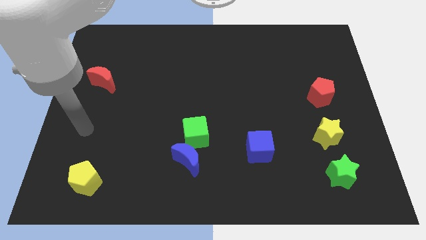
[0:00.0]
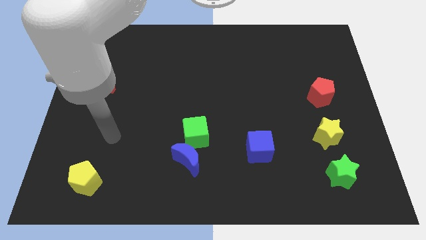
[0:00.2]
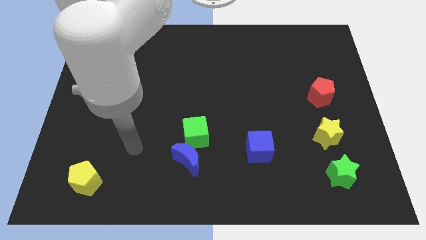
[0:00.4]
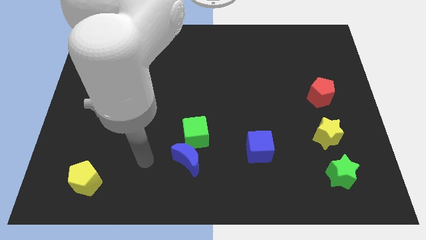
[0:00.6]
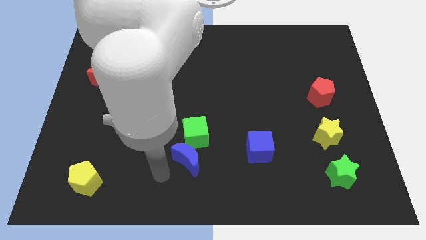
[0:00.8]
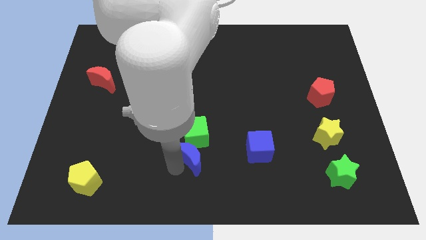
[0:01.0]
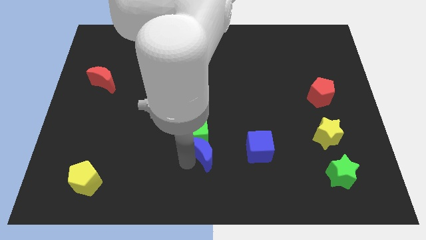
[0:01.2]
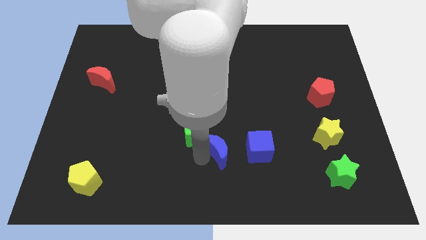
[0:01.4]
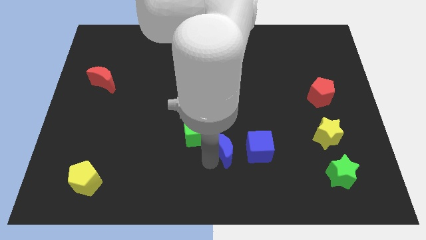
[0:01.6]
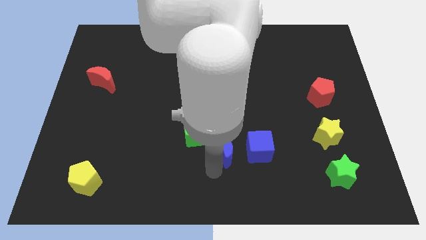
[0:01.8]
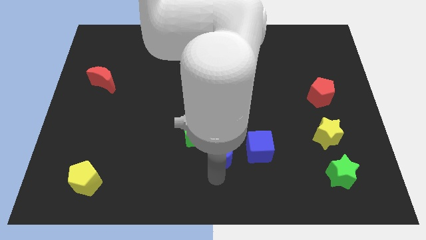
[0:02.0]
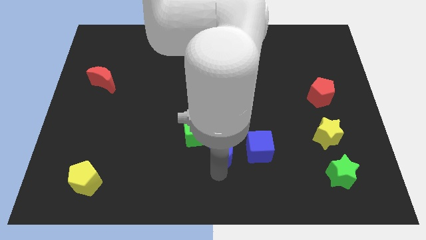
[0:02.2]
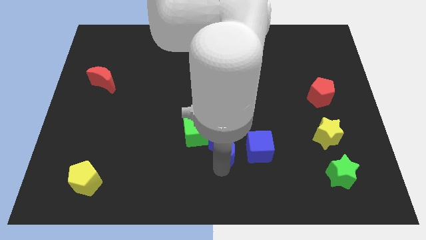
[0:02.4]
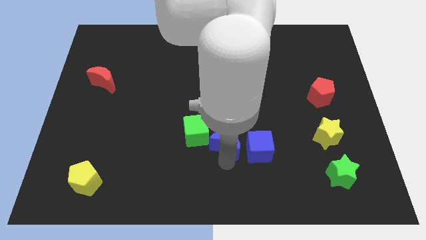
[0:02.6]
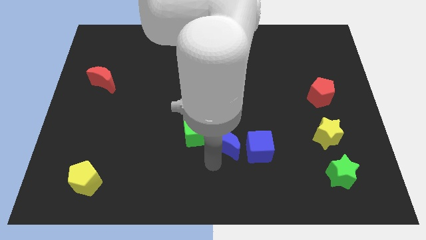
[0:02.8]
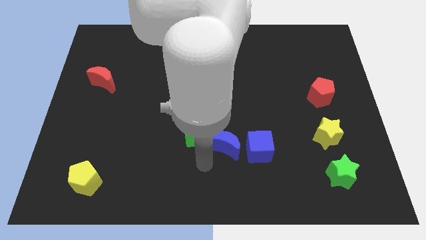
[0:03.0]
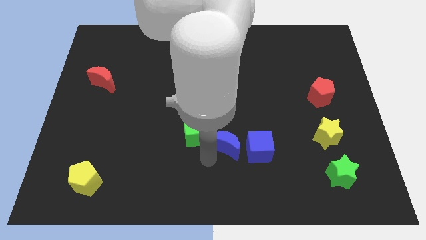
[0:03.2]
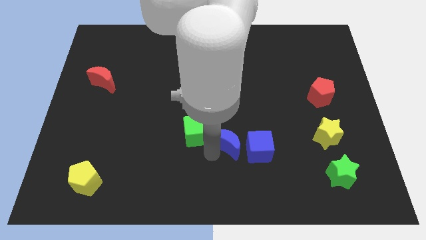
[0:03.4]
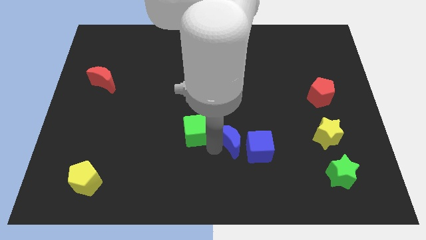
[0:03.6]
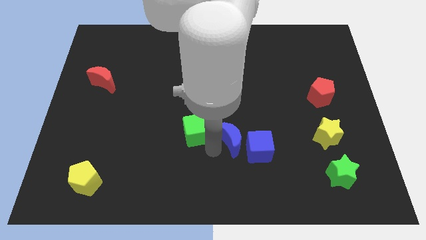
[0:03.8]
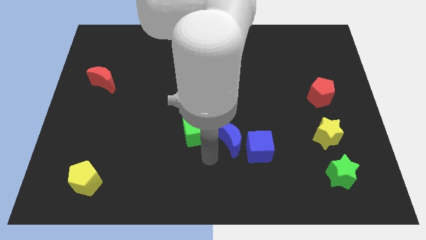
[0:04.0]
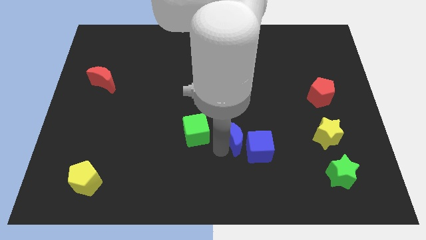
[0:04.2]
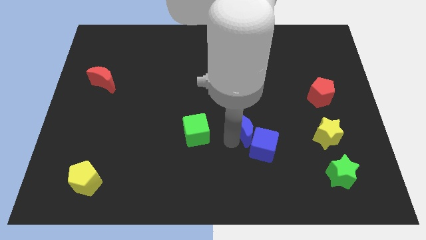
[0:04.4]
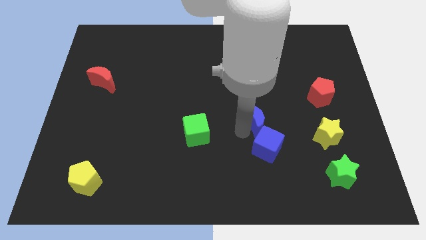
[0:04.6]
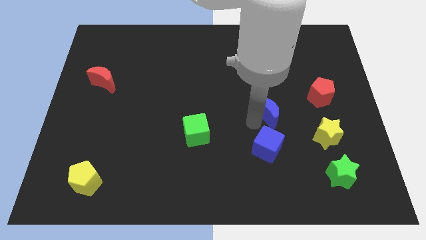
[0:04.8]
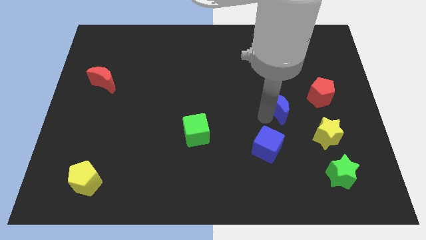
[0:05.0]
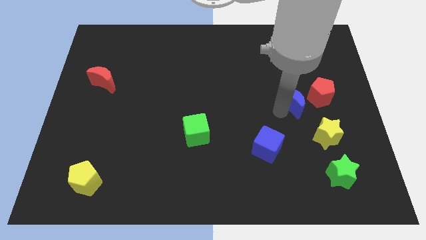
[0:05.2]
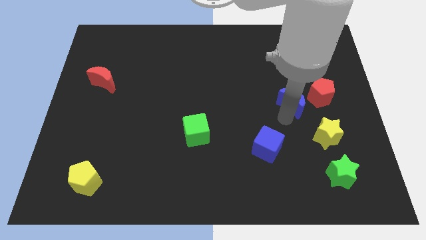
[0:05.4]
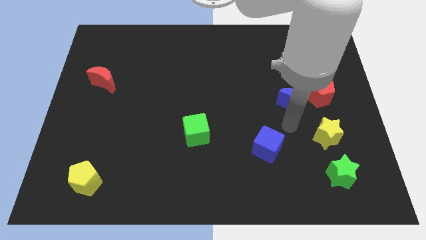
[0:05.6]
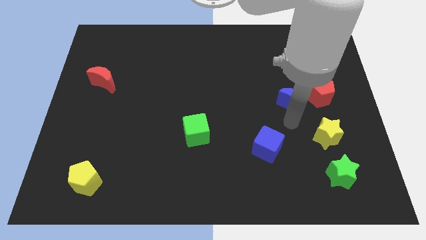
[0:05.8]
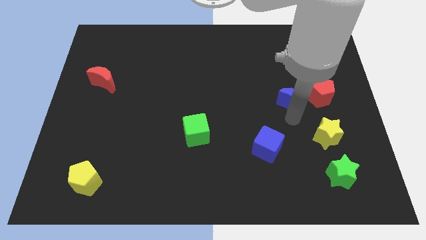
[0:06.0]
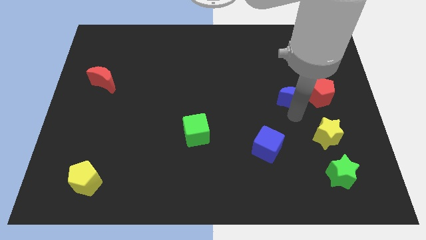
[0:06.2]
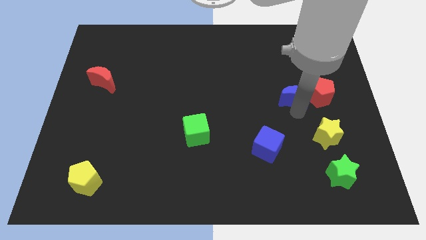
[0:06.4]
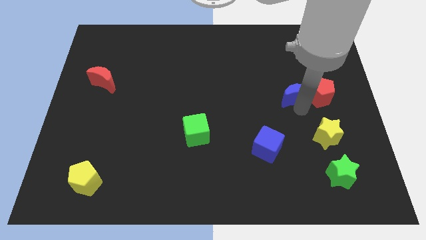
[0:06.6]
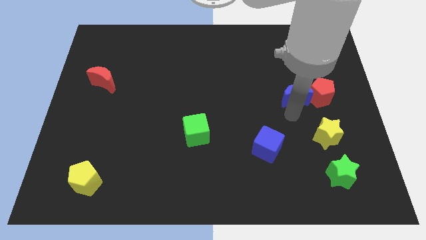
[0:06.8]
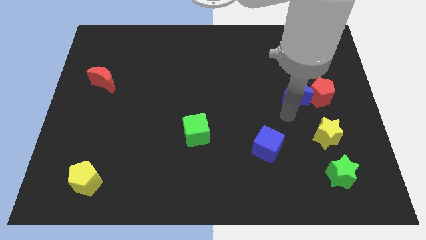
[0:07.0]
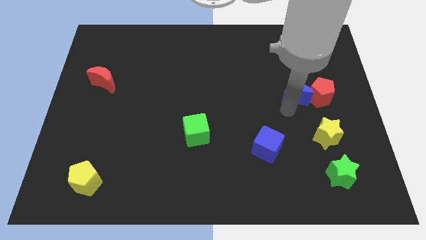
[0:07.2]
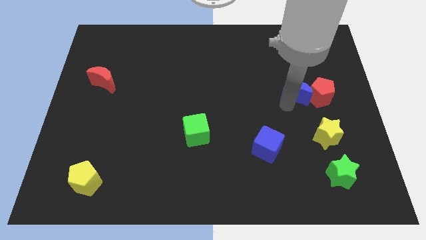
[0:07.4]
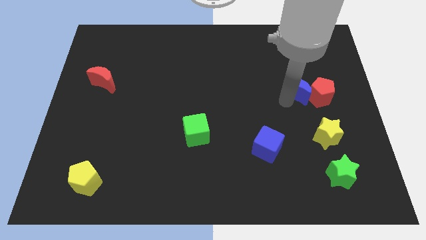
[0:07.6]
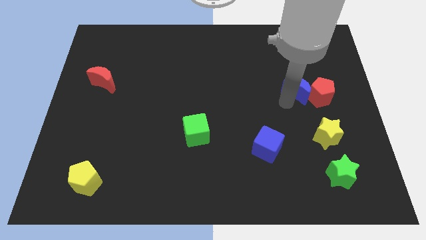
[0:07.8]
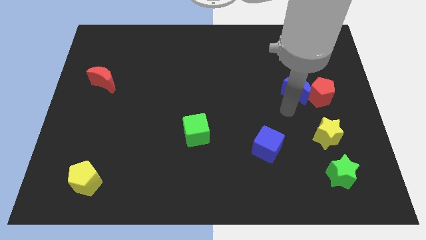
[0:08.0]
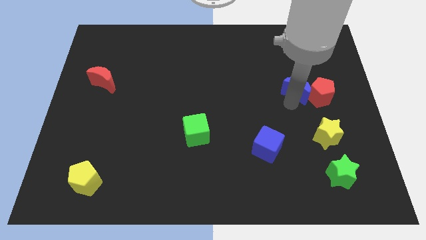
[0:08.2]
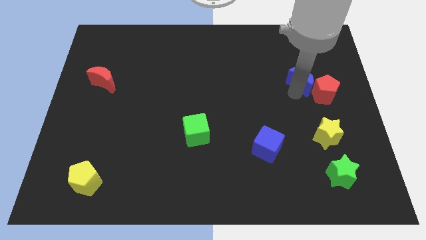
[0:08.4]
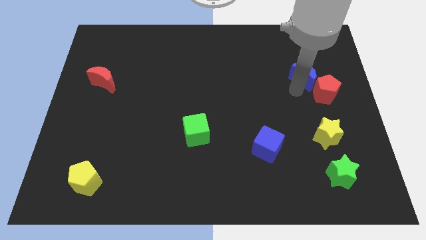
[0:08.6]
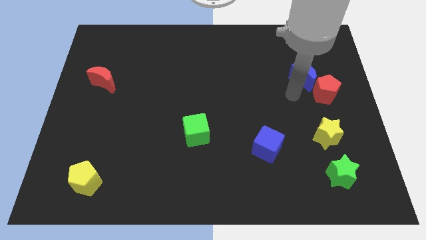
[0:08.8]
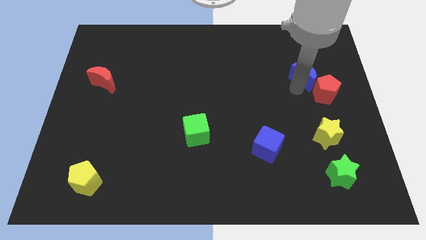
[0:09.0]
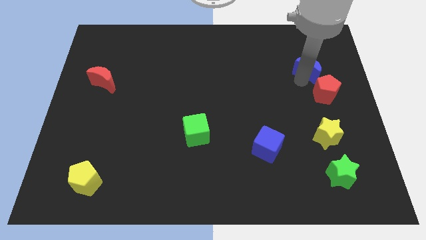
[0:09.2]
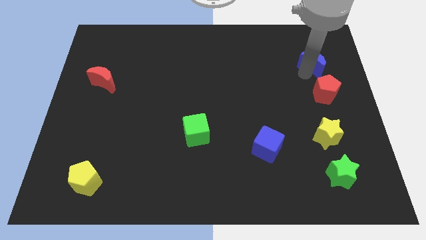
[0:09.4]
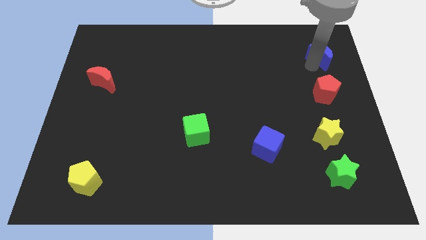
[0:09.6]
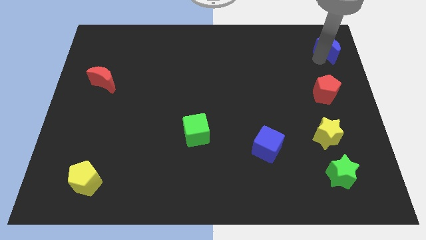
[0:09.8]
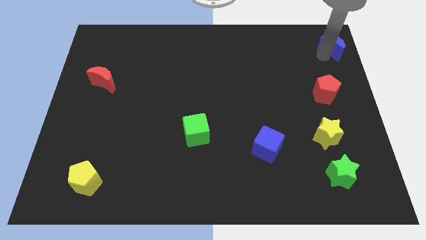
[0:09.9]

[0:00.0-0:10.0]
move the blue moon to the upper right corner

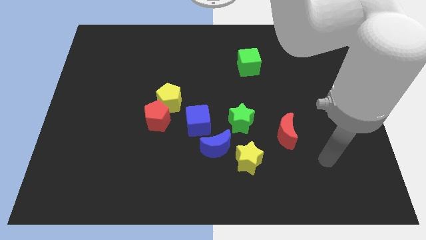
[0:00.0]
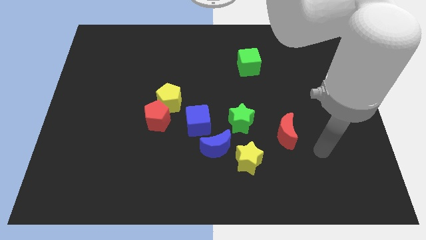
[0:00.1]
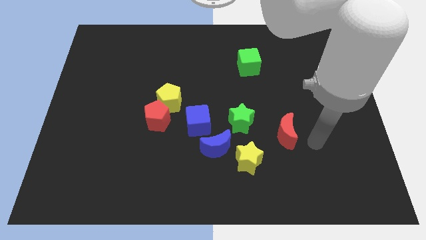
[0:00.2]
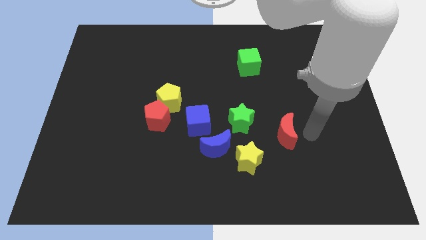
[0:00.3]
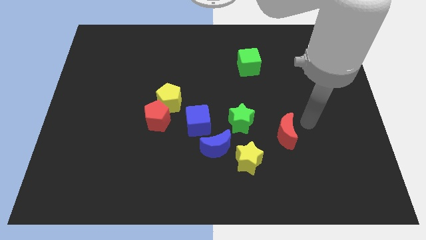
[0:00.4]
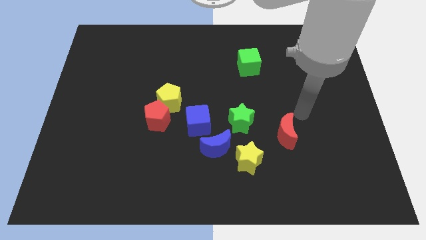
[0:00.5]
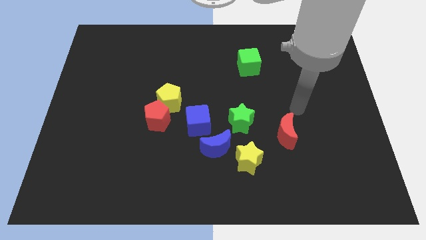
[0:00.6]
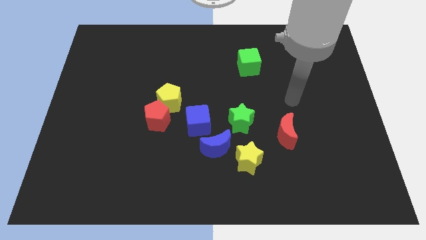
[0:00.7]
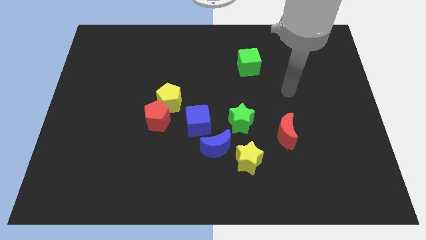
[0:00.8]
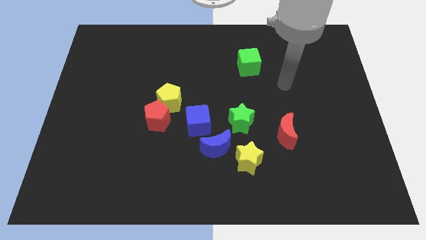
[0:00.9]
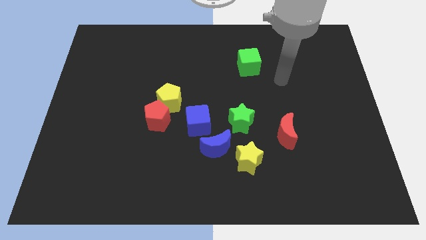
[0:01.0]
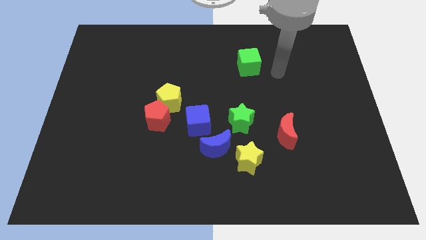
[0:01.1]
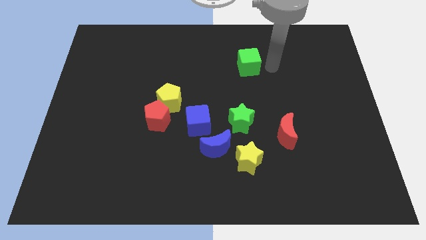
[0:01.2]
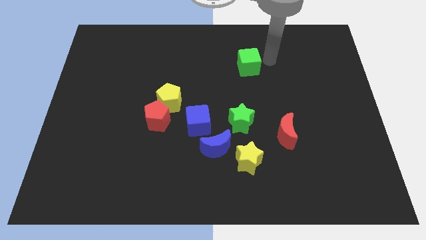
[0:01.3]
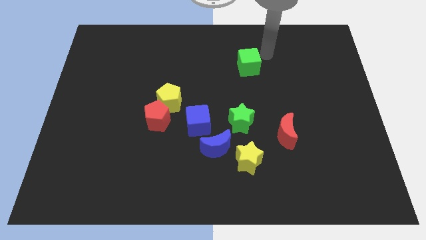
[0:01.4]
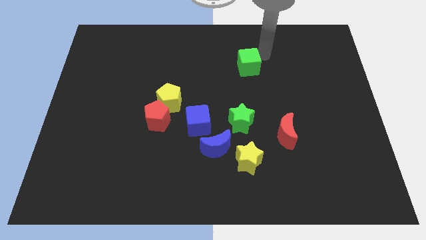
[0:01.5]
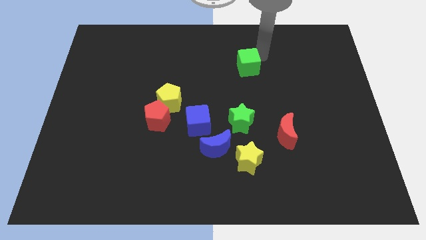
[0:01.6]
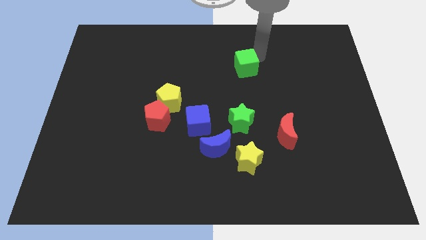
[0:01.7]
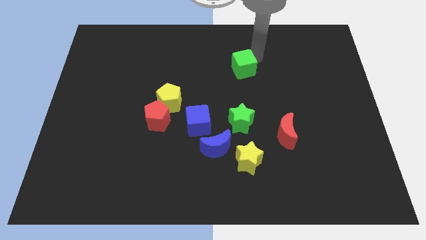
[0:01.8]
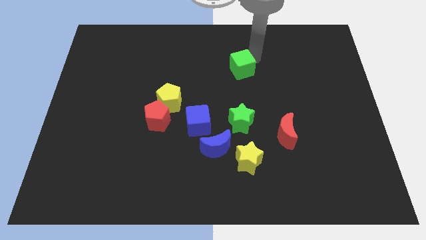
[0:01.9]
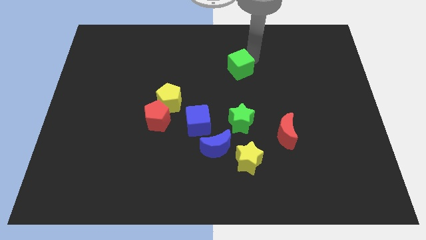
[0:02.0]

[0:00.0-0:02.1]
slide the green cube to the center of the board

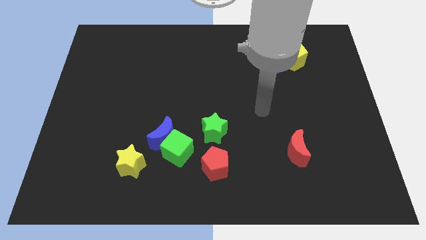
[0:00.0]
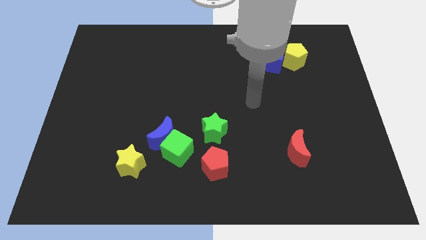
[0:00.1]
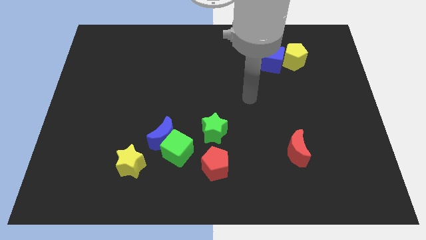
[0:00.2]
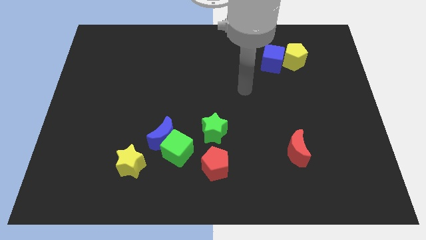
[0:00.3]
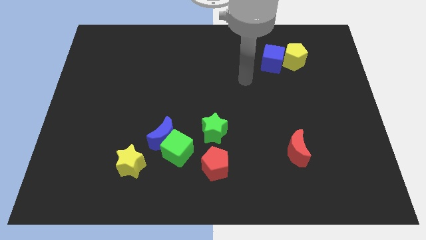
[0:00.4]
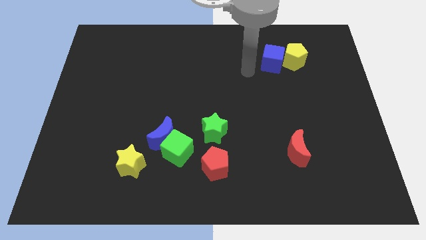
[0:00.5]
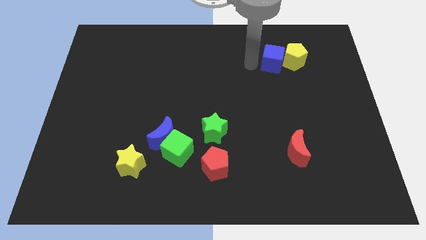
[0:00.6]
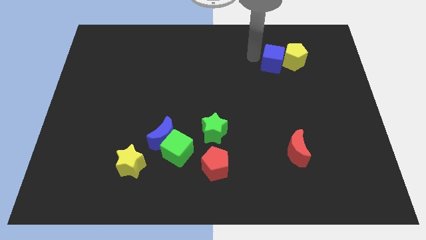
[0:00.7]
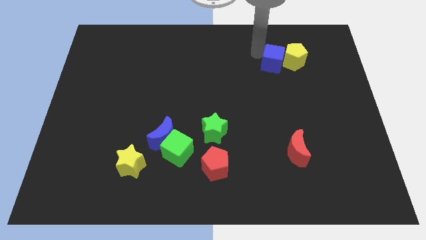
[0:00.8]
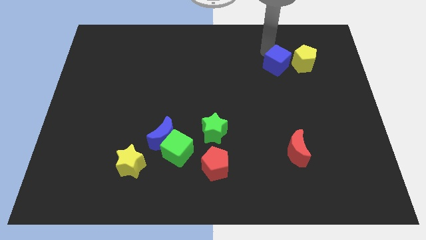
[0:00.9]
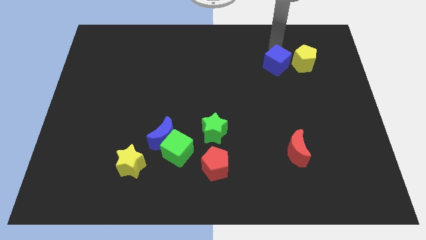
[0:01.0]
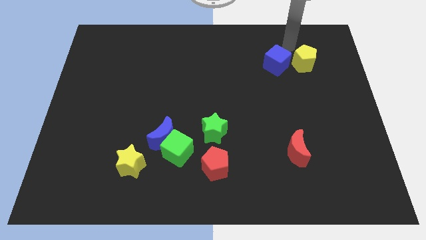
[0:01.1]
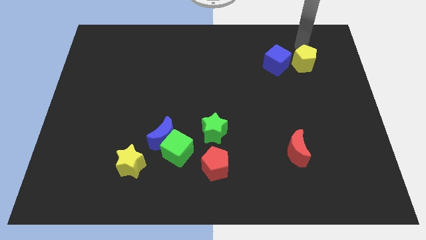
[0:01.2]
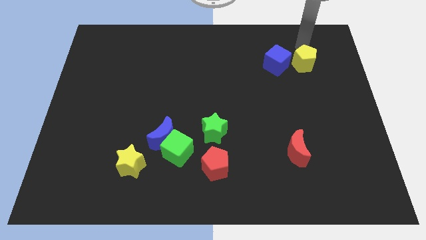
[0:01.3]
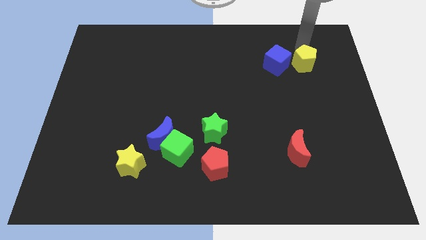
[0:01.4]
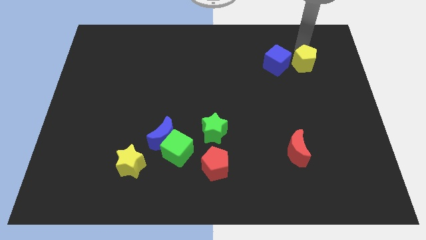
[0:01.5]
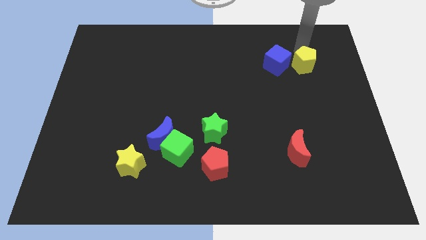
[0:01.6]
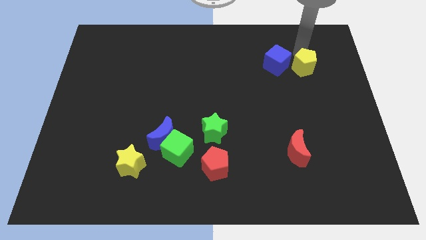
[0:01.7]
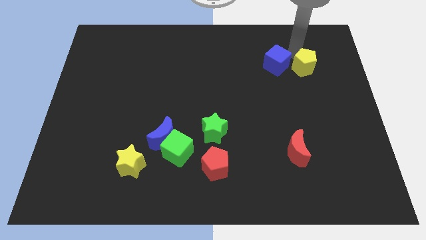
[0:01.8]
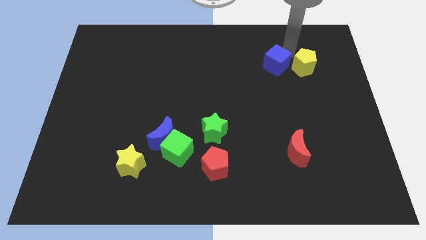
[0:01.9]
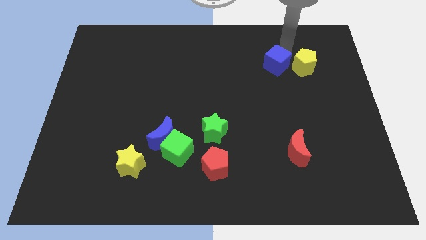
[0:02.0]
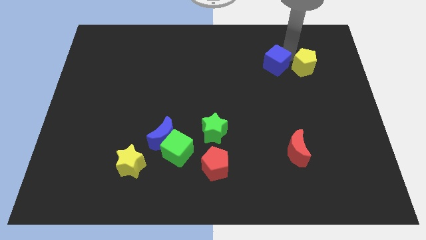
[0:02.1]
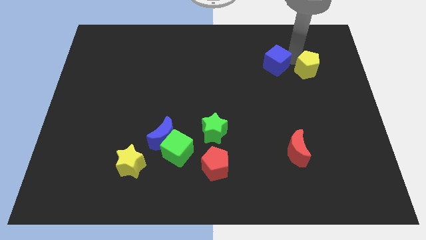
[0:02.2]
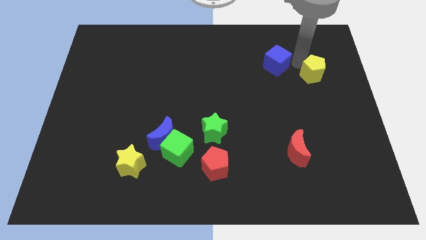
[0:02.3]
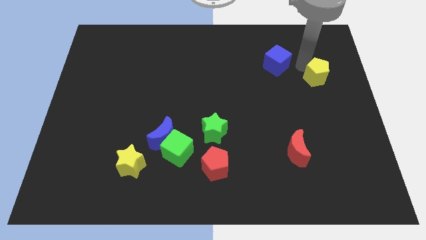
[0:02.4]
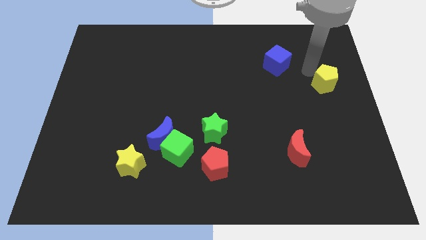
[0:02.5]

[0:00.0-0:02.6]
move the yellow pentagon to the right side of the board
